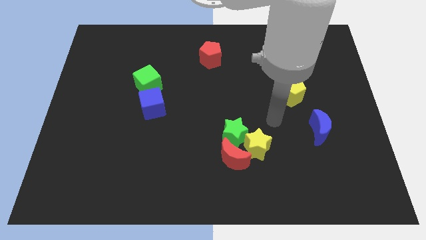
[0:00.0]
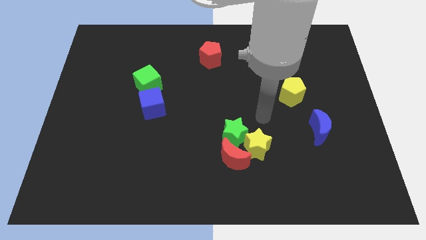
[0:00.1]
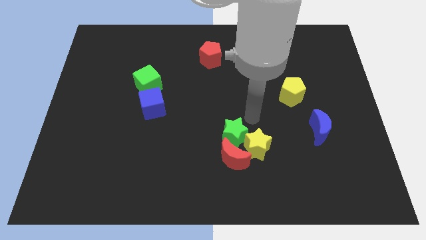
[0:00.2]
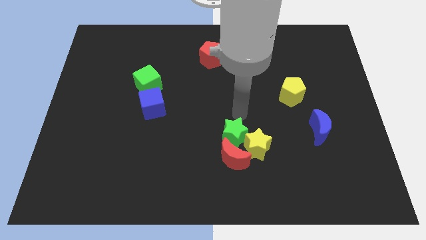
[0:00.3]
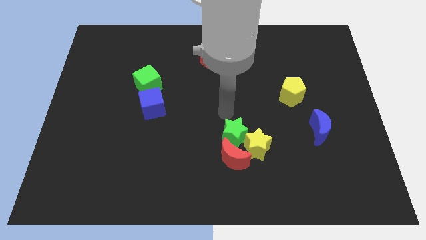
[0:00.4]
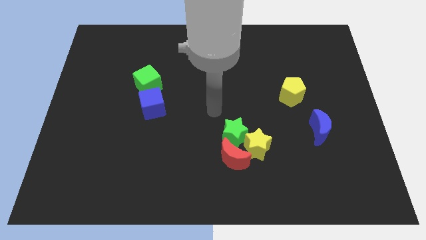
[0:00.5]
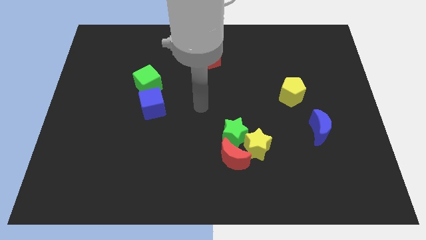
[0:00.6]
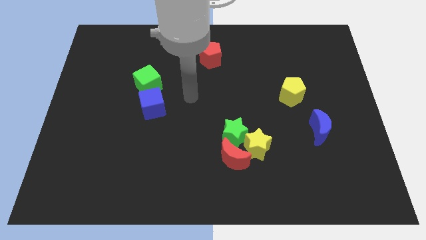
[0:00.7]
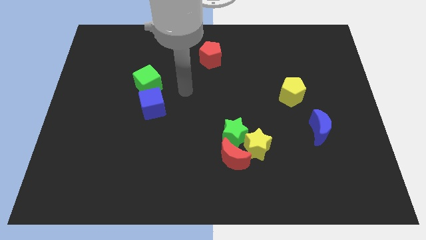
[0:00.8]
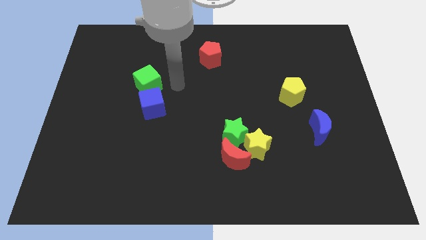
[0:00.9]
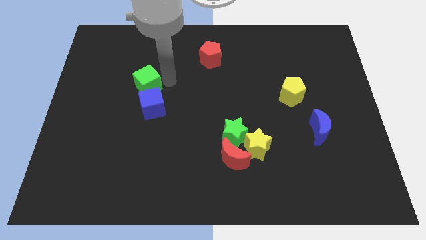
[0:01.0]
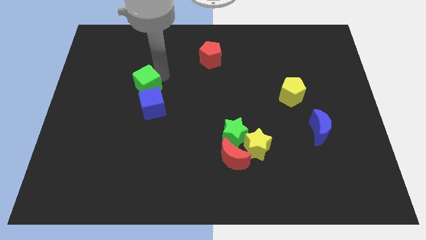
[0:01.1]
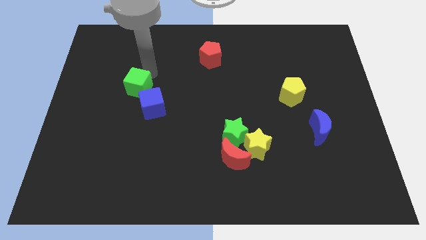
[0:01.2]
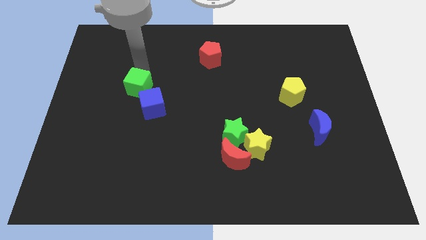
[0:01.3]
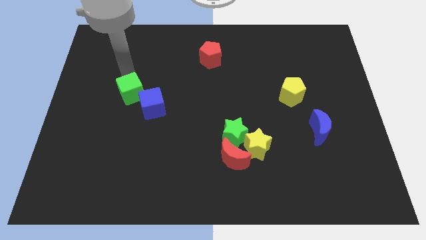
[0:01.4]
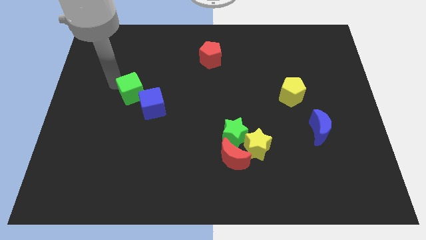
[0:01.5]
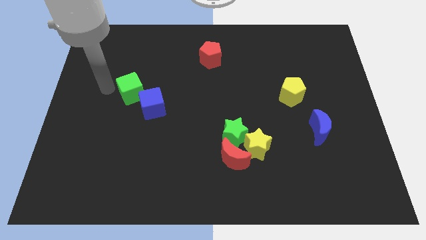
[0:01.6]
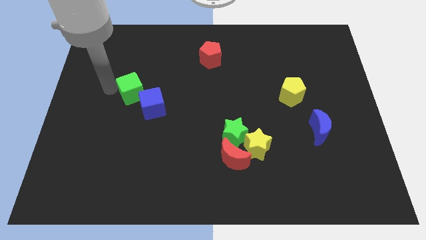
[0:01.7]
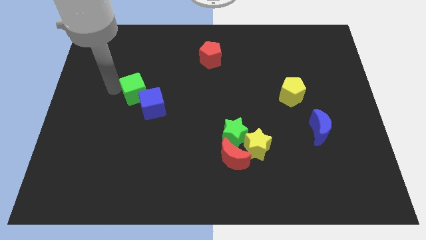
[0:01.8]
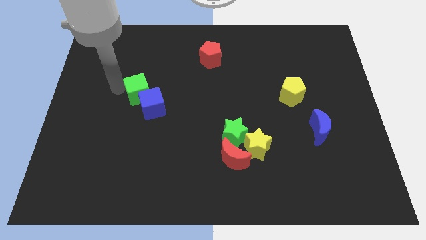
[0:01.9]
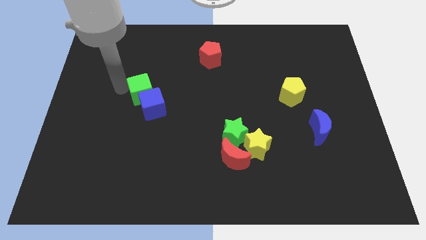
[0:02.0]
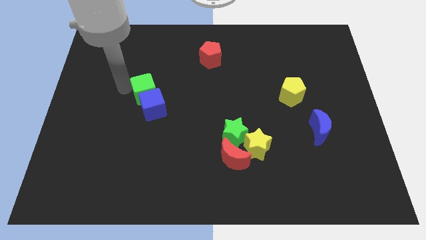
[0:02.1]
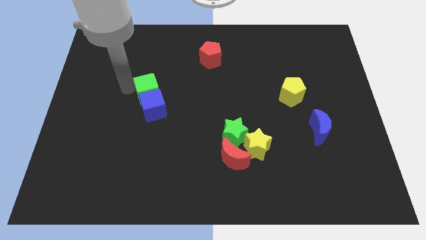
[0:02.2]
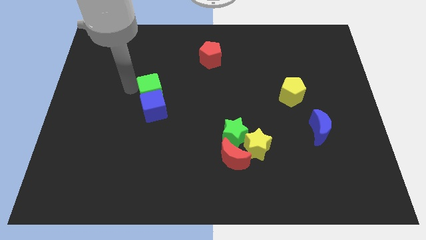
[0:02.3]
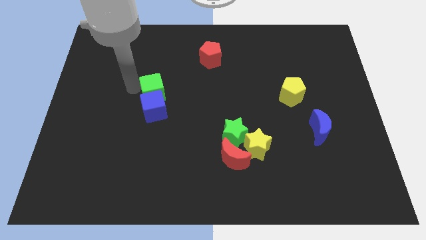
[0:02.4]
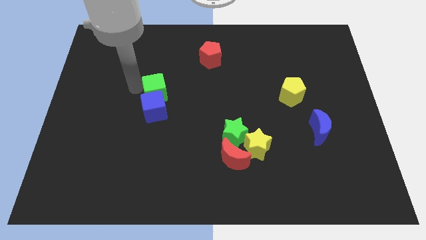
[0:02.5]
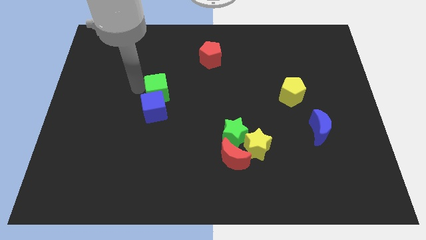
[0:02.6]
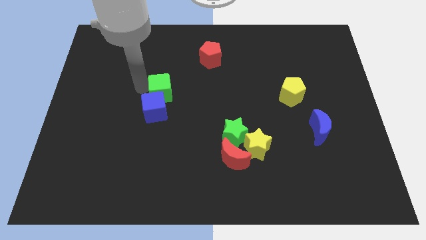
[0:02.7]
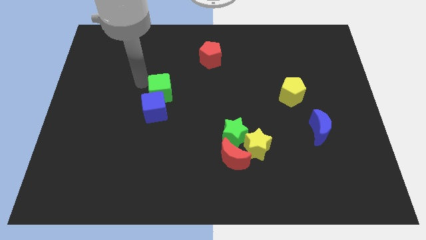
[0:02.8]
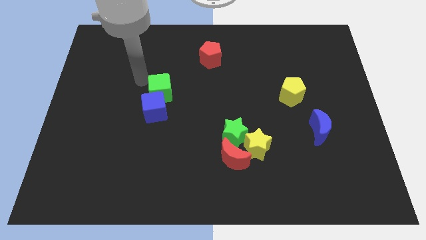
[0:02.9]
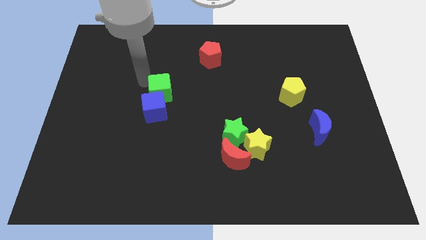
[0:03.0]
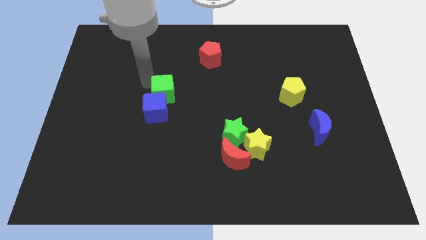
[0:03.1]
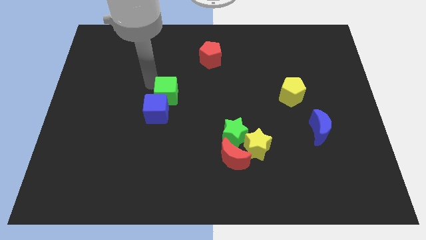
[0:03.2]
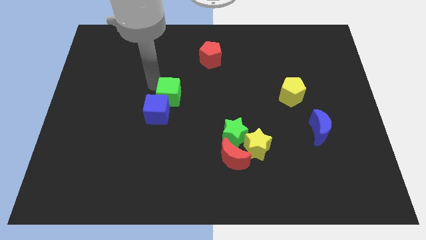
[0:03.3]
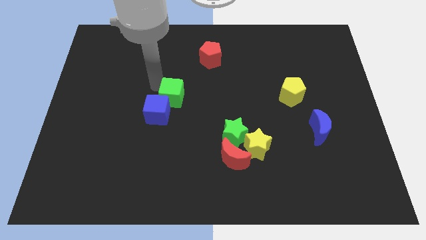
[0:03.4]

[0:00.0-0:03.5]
move the green cube a little bit diagonally downwards and right

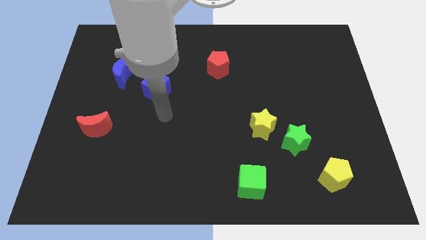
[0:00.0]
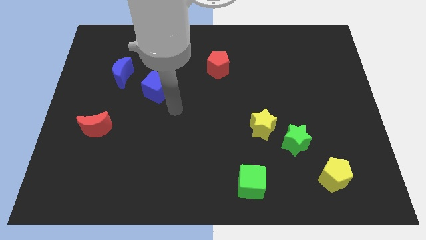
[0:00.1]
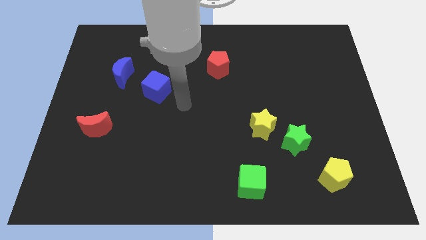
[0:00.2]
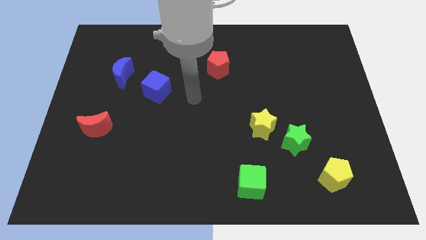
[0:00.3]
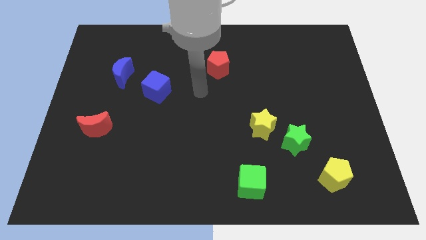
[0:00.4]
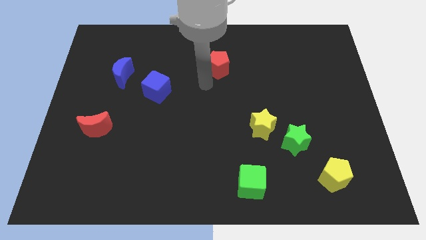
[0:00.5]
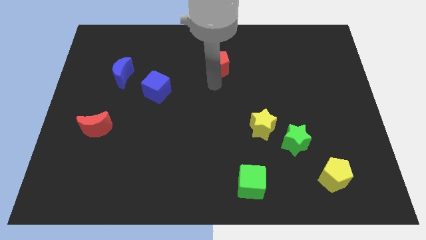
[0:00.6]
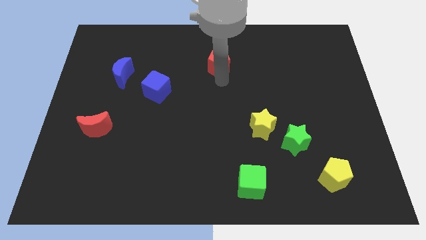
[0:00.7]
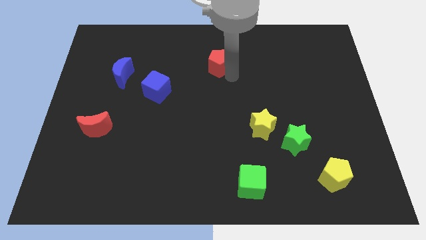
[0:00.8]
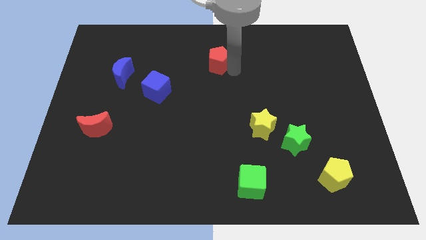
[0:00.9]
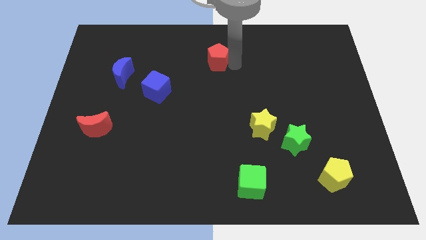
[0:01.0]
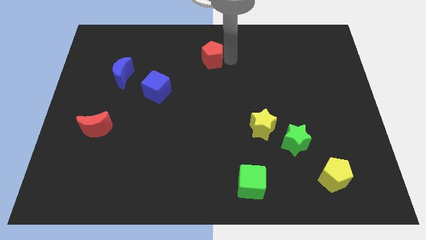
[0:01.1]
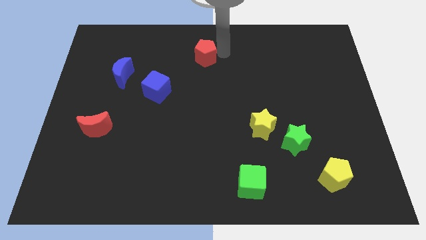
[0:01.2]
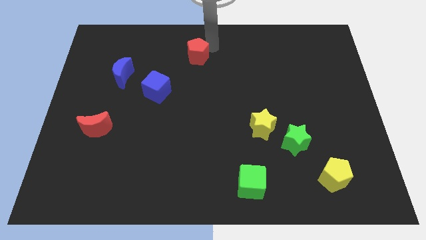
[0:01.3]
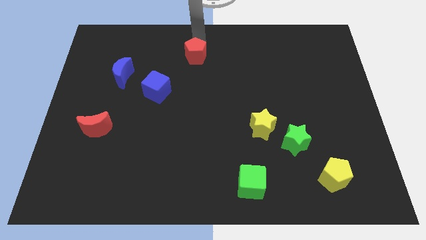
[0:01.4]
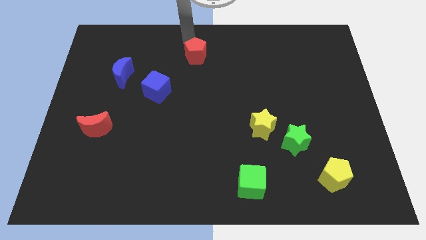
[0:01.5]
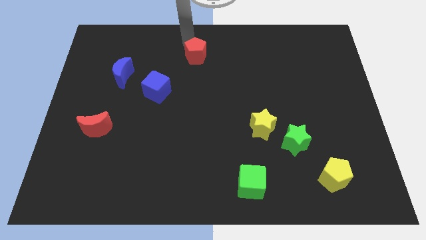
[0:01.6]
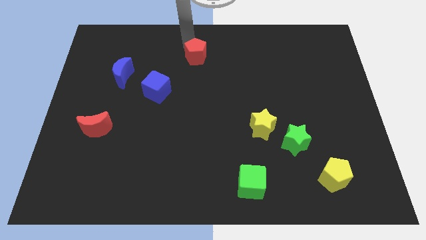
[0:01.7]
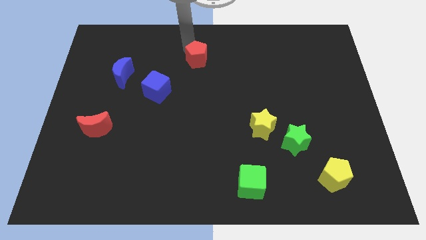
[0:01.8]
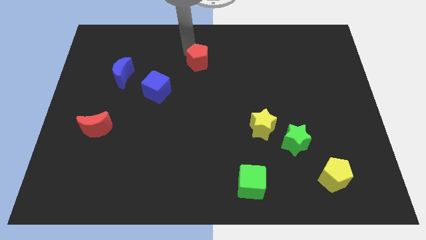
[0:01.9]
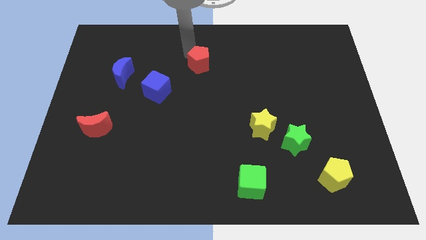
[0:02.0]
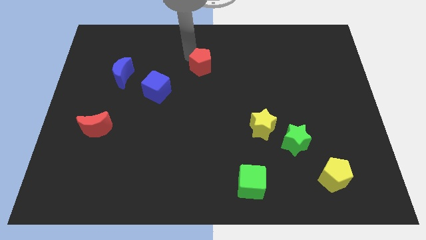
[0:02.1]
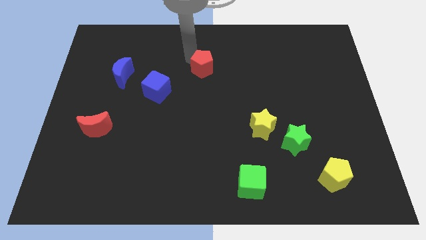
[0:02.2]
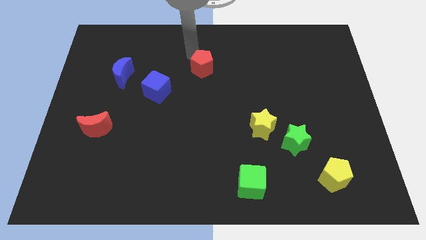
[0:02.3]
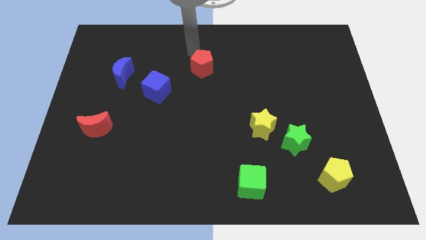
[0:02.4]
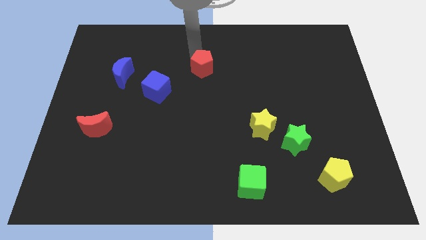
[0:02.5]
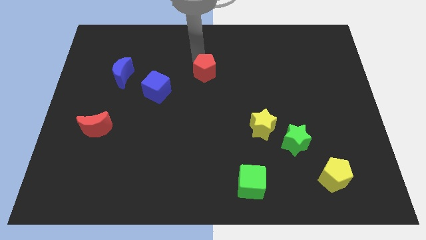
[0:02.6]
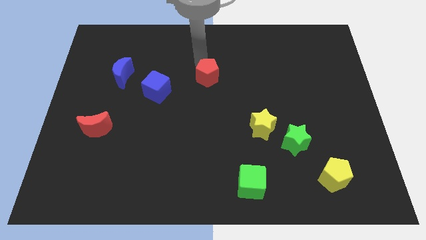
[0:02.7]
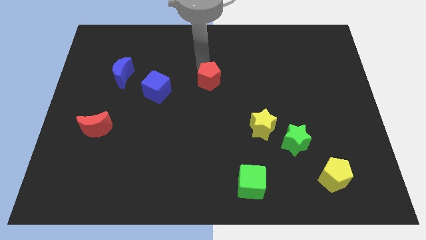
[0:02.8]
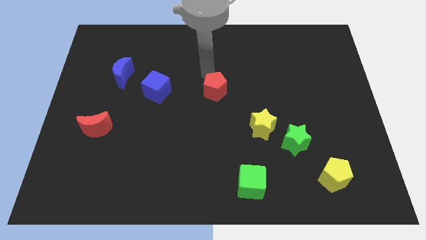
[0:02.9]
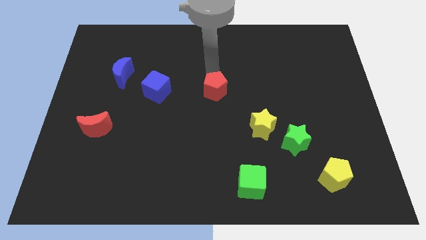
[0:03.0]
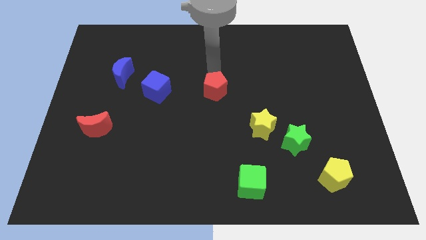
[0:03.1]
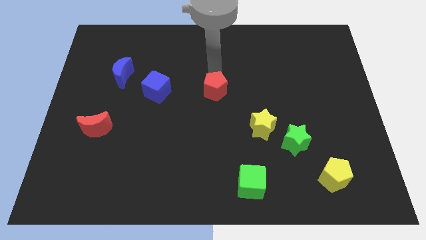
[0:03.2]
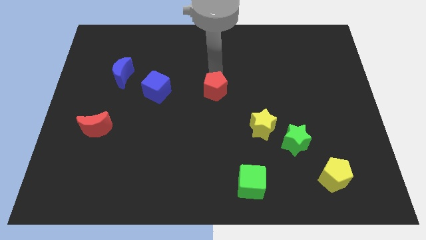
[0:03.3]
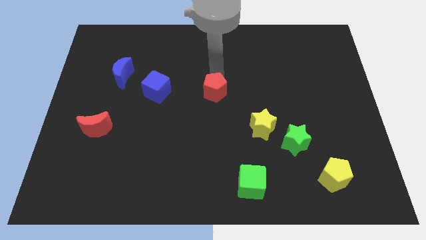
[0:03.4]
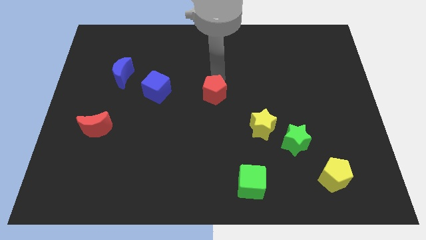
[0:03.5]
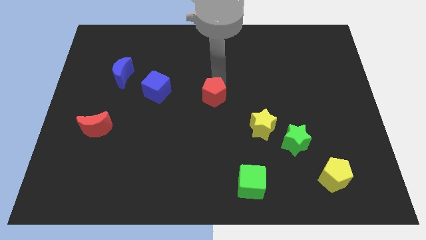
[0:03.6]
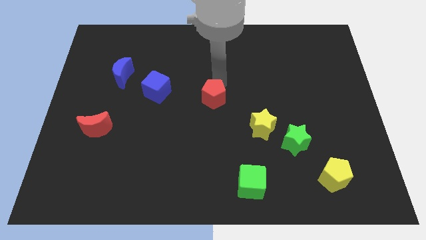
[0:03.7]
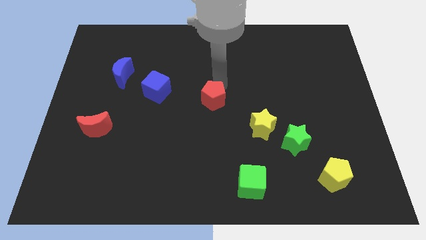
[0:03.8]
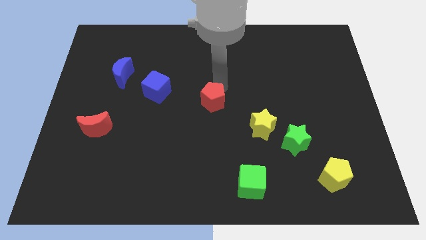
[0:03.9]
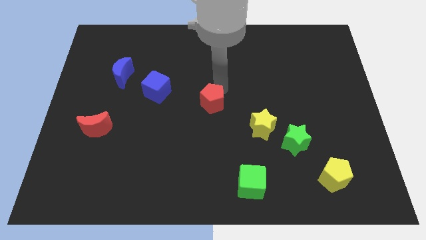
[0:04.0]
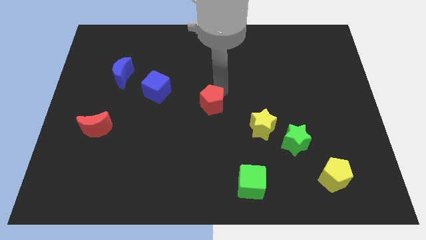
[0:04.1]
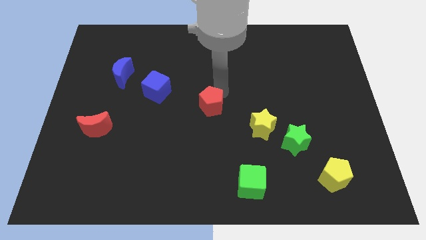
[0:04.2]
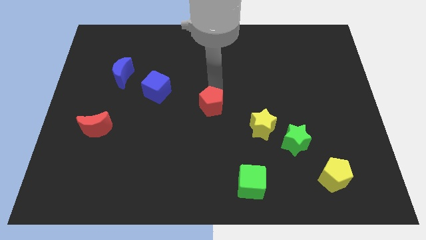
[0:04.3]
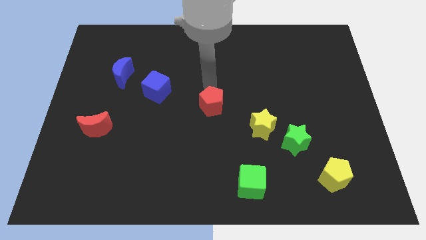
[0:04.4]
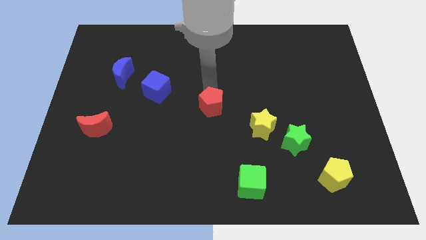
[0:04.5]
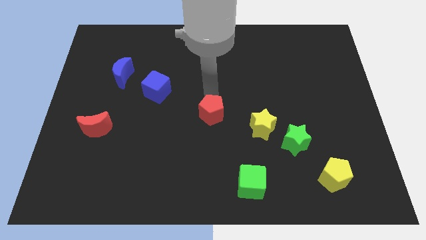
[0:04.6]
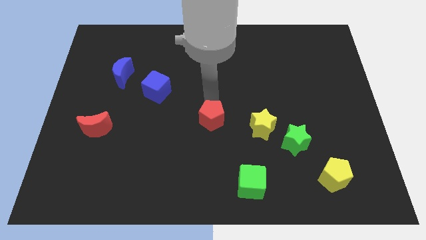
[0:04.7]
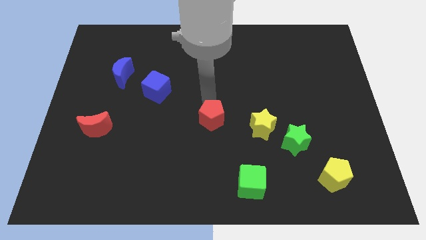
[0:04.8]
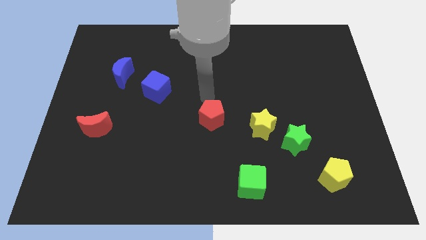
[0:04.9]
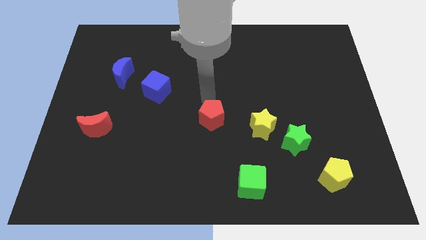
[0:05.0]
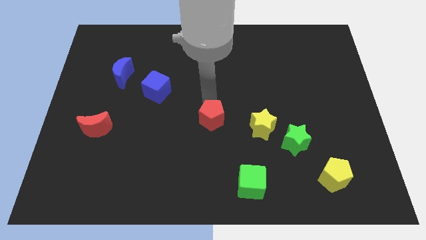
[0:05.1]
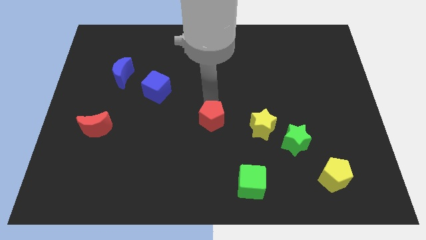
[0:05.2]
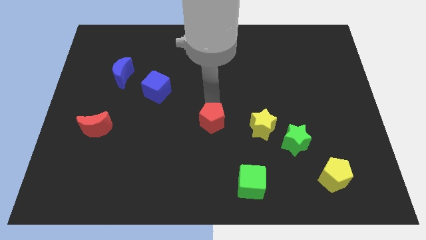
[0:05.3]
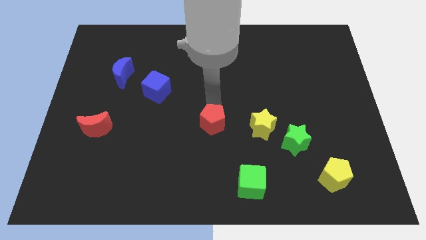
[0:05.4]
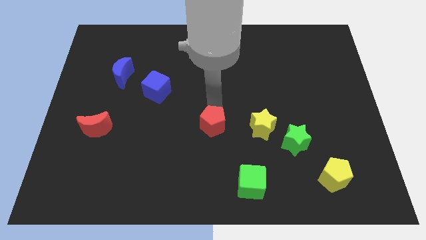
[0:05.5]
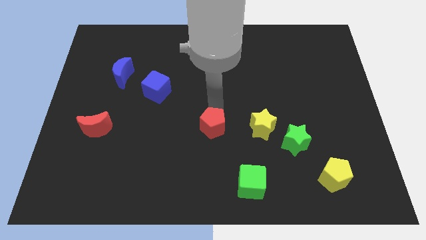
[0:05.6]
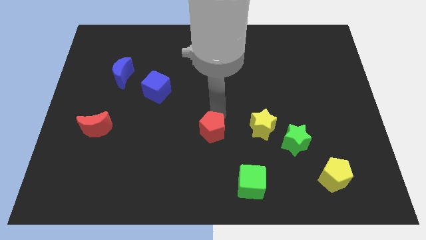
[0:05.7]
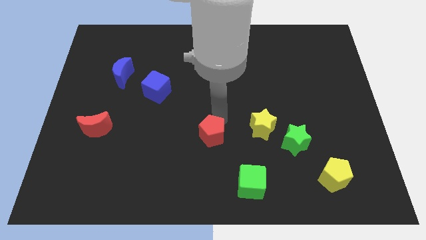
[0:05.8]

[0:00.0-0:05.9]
push the red pentagon down
